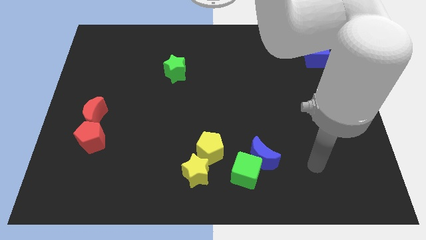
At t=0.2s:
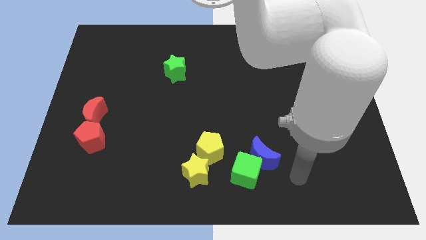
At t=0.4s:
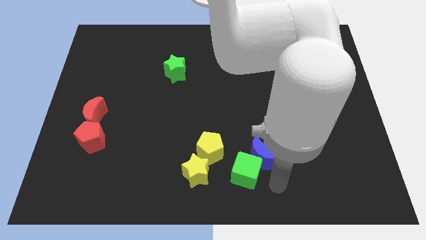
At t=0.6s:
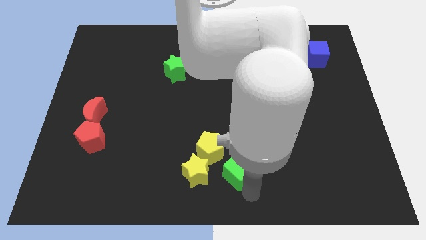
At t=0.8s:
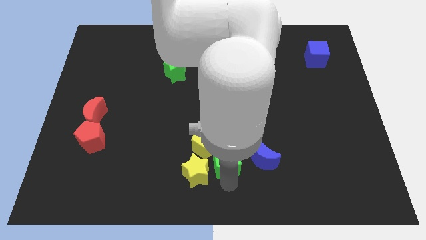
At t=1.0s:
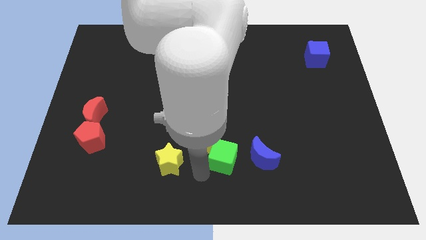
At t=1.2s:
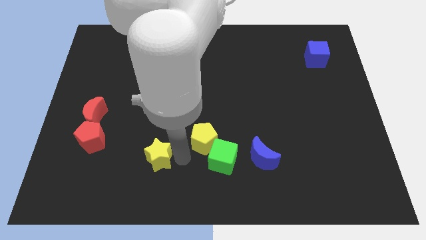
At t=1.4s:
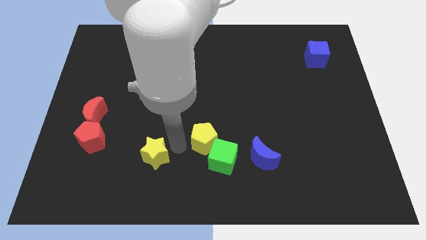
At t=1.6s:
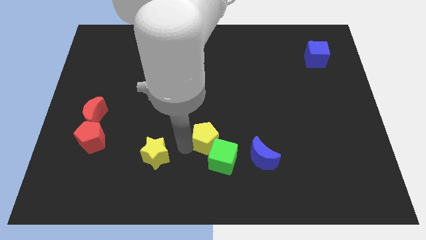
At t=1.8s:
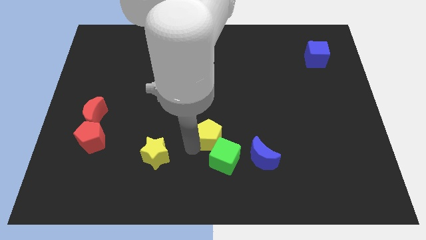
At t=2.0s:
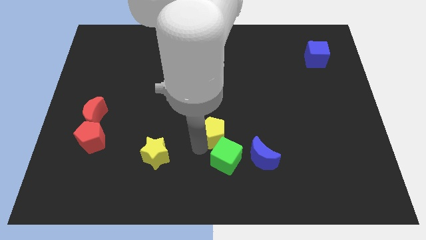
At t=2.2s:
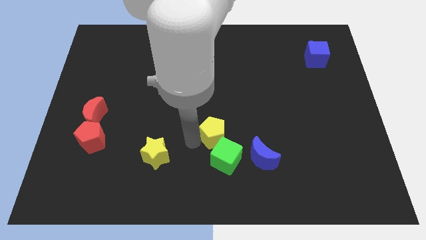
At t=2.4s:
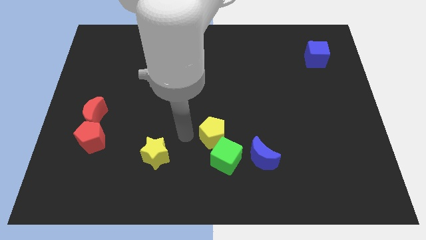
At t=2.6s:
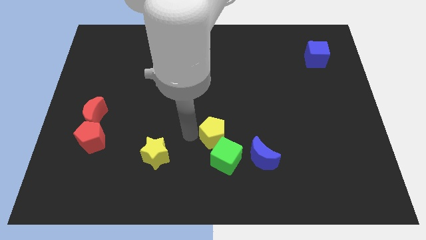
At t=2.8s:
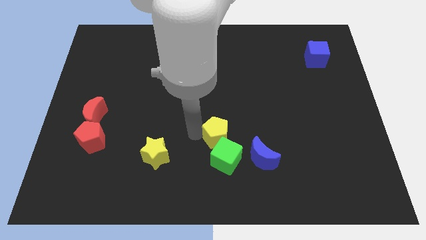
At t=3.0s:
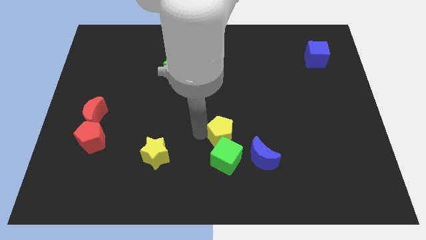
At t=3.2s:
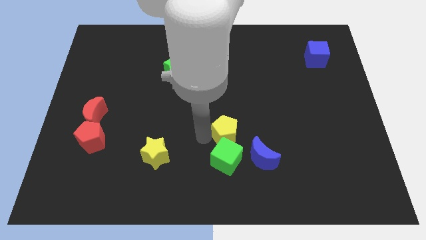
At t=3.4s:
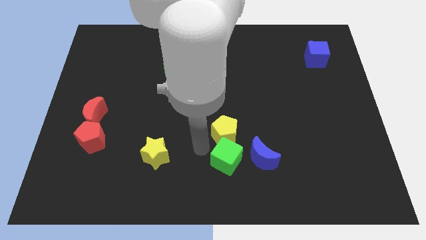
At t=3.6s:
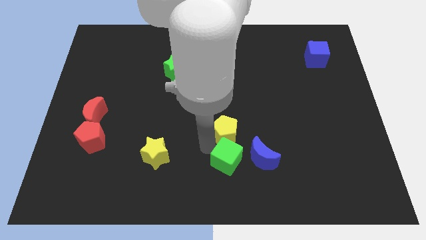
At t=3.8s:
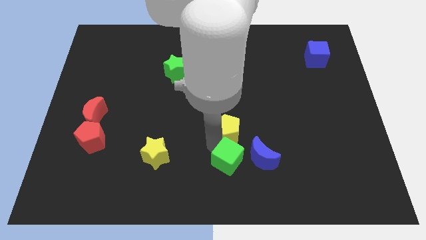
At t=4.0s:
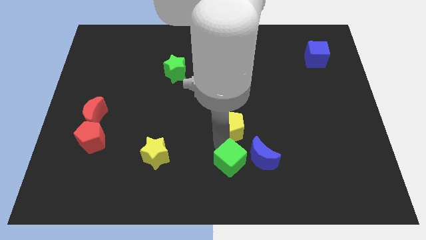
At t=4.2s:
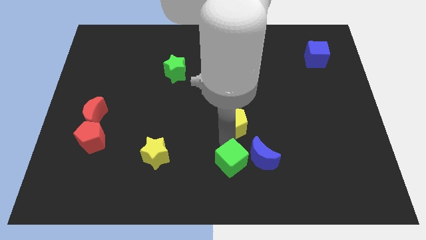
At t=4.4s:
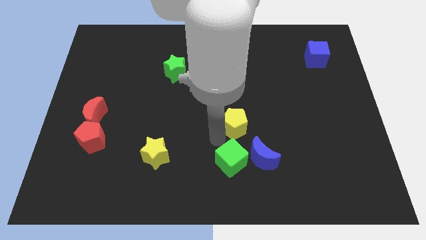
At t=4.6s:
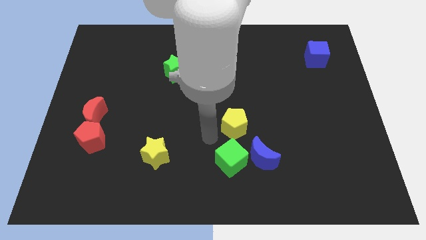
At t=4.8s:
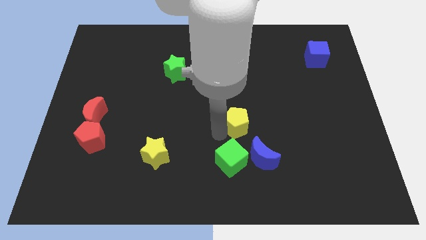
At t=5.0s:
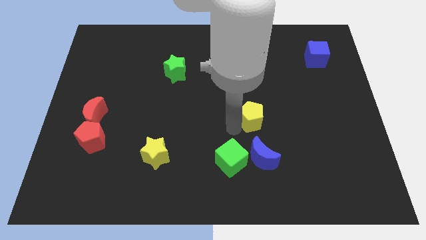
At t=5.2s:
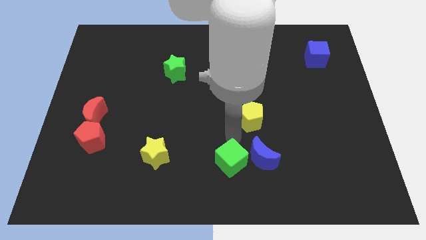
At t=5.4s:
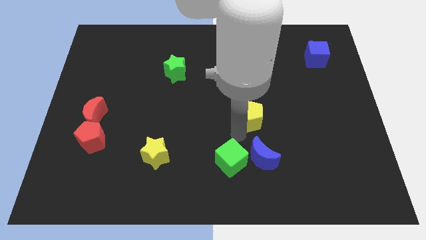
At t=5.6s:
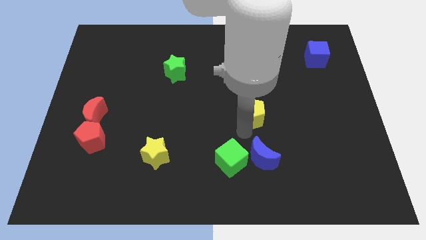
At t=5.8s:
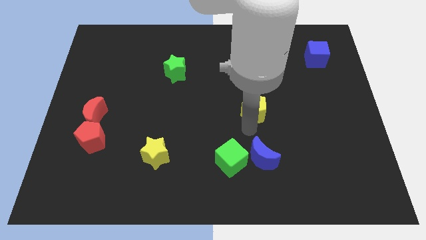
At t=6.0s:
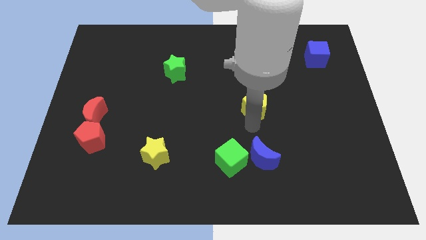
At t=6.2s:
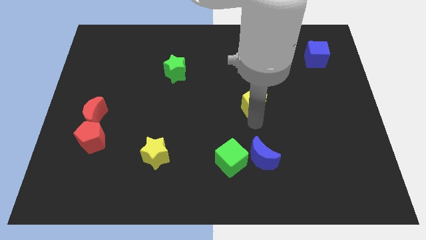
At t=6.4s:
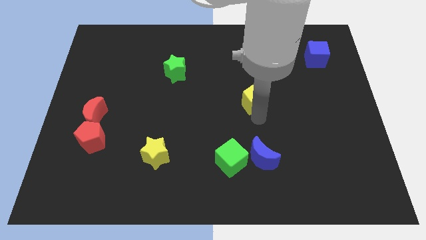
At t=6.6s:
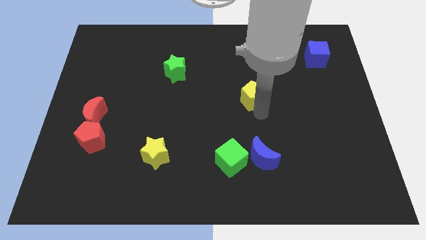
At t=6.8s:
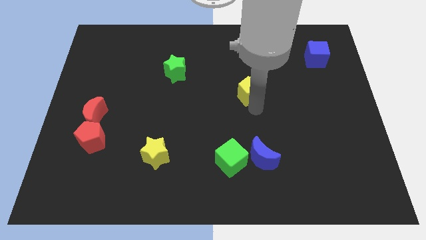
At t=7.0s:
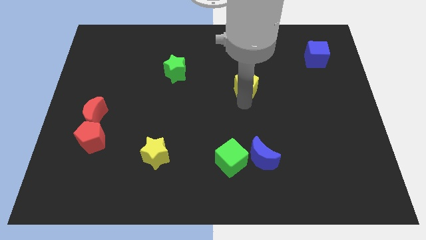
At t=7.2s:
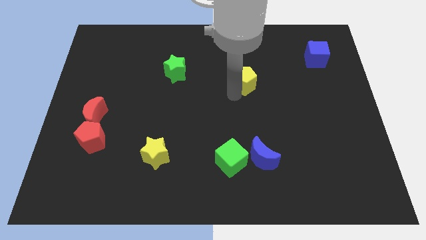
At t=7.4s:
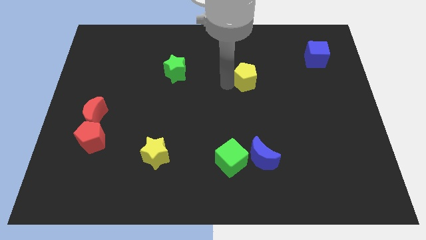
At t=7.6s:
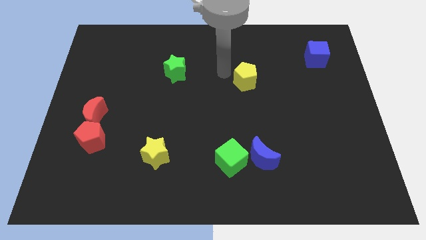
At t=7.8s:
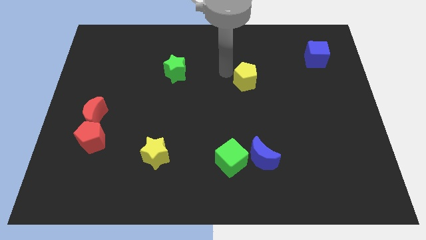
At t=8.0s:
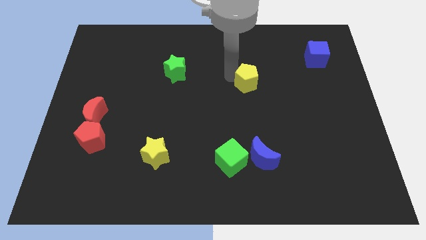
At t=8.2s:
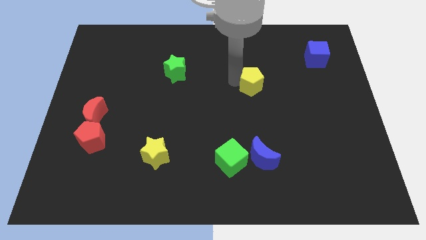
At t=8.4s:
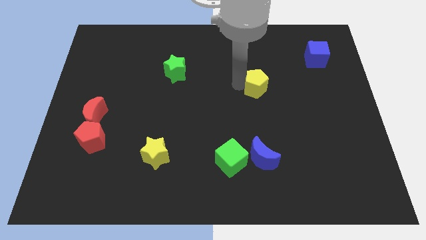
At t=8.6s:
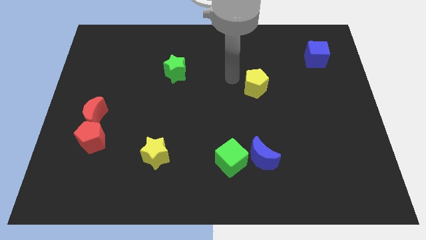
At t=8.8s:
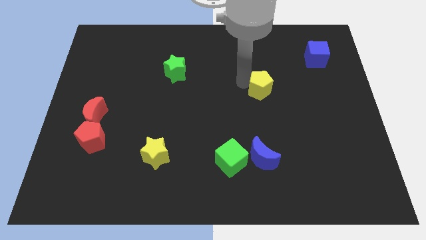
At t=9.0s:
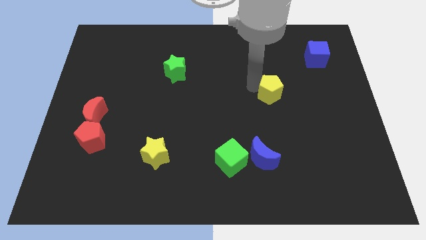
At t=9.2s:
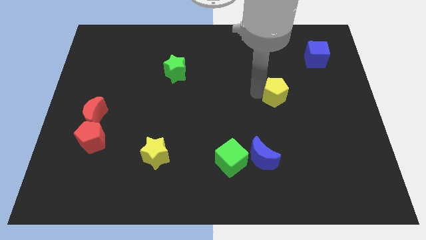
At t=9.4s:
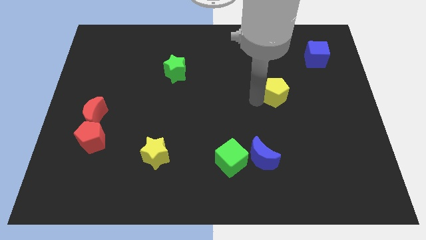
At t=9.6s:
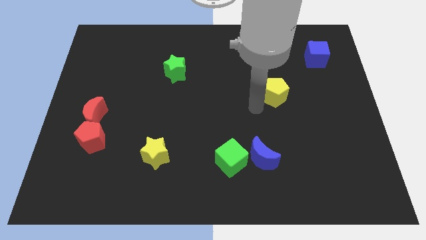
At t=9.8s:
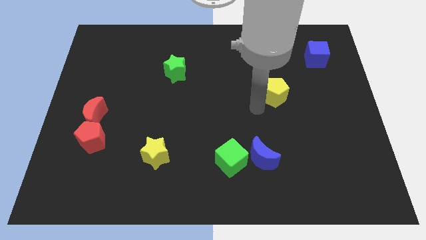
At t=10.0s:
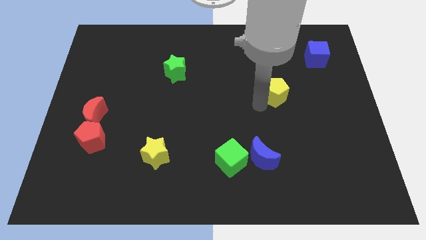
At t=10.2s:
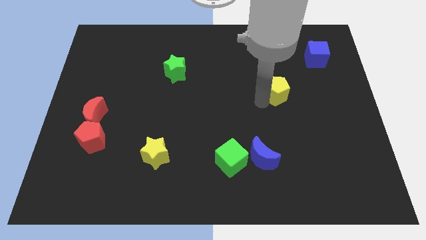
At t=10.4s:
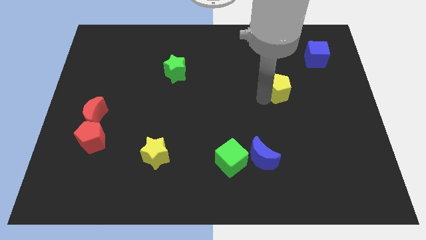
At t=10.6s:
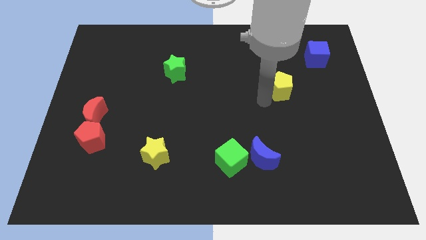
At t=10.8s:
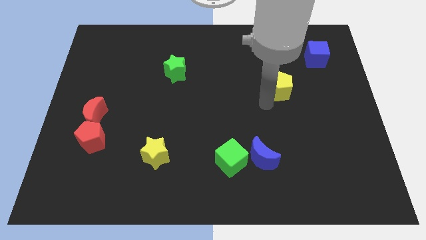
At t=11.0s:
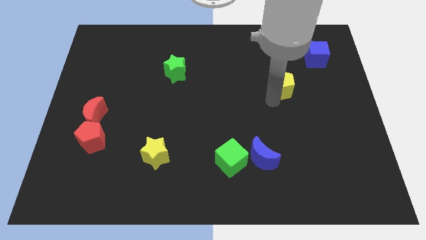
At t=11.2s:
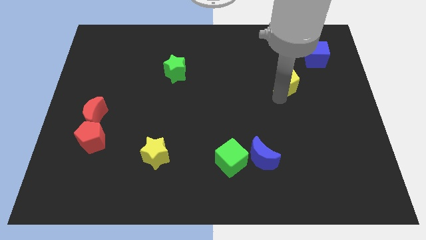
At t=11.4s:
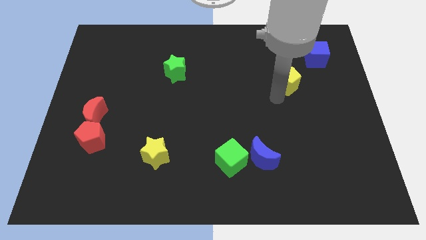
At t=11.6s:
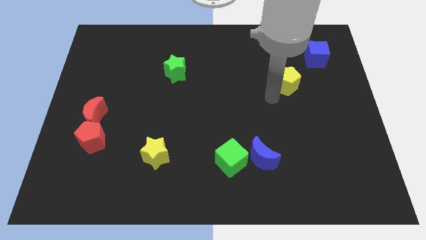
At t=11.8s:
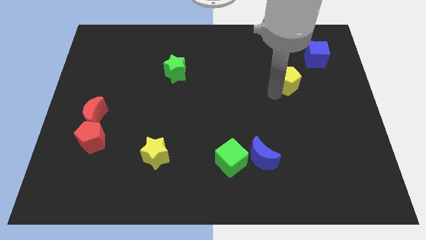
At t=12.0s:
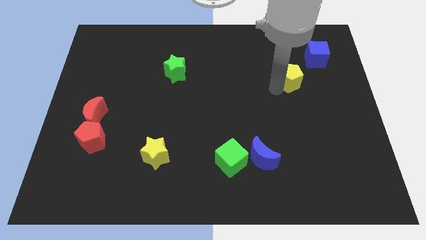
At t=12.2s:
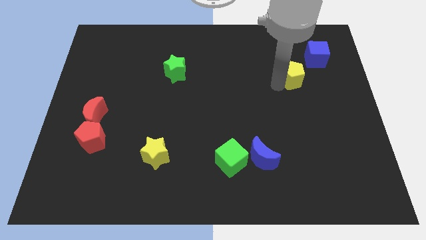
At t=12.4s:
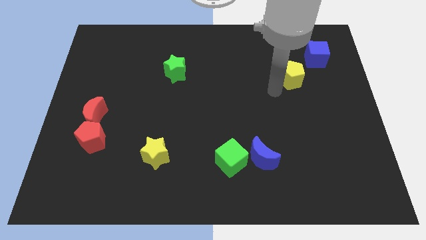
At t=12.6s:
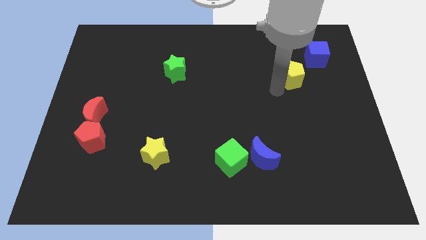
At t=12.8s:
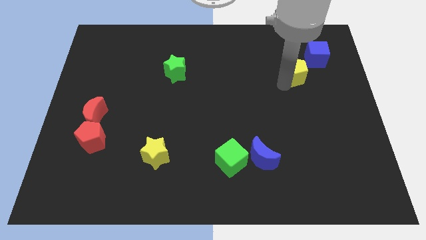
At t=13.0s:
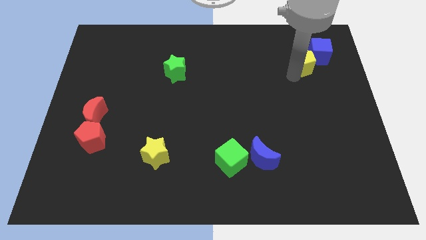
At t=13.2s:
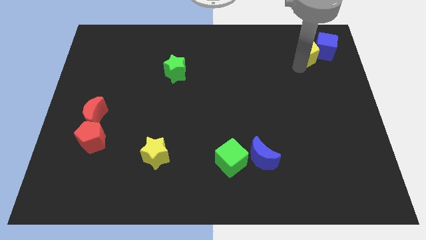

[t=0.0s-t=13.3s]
push the yellow pentagon towards the blue cube
